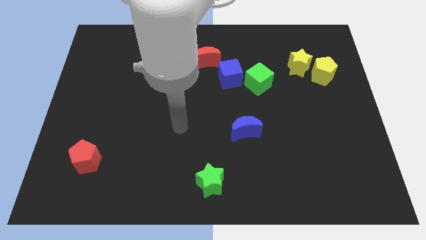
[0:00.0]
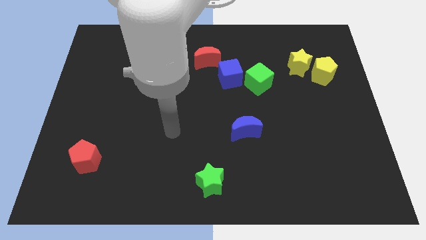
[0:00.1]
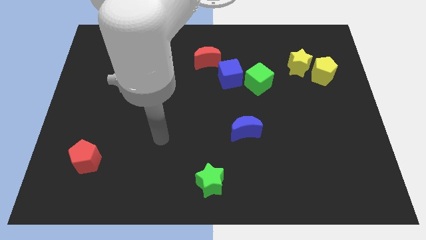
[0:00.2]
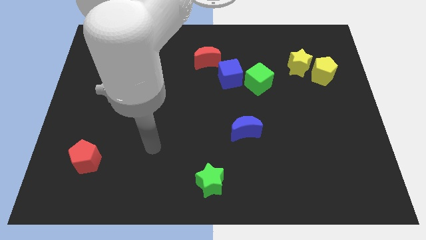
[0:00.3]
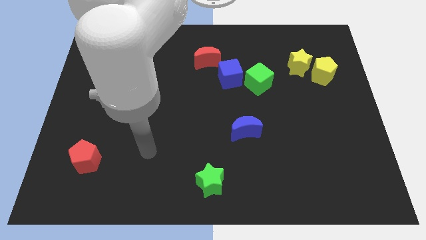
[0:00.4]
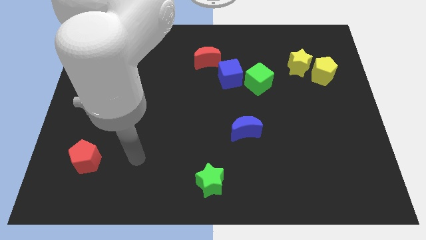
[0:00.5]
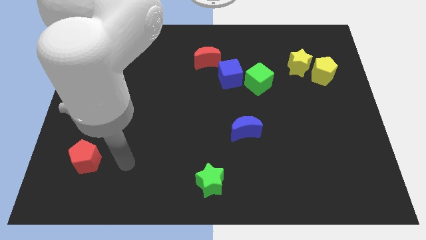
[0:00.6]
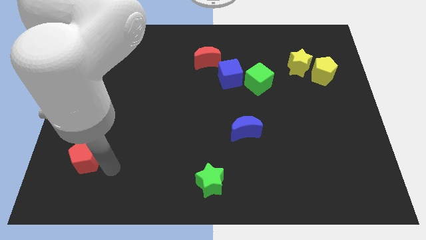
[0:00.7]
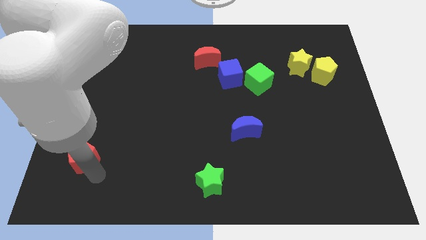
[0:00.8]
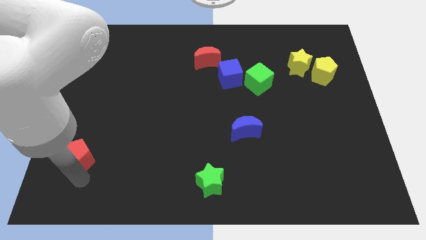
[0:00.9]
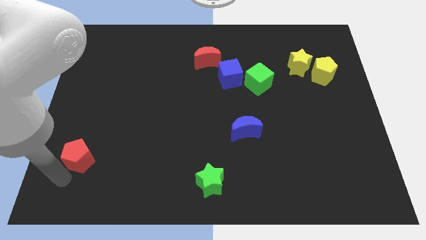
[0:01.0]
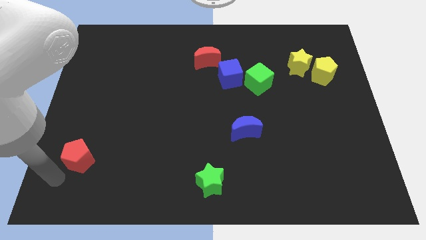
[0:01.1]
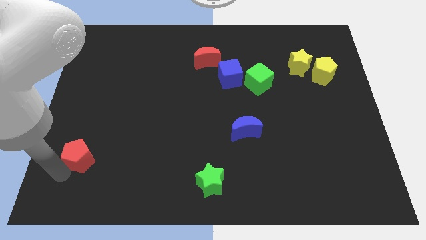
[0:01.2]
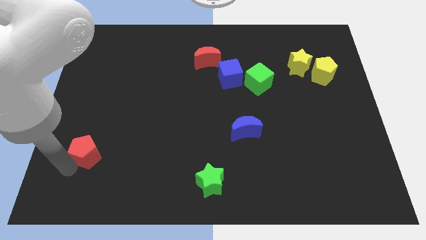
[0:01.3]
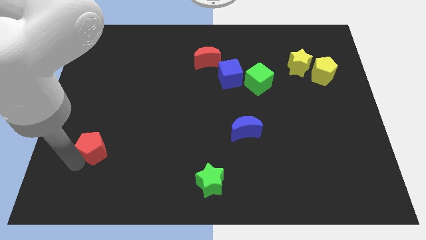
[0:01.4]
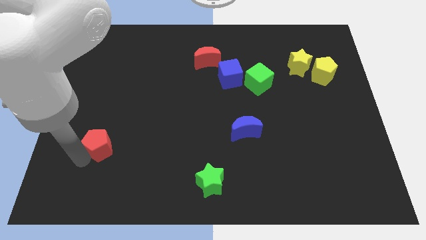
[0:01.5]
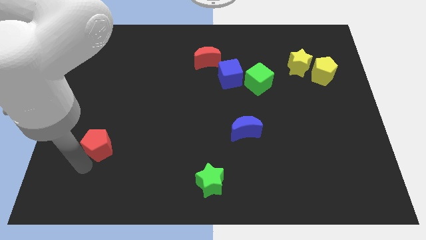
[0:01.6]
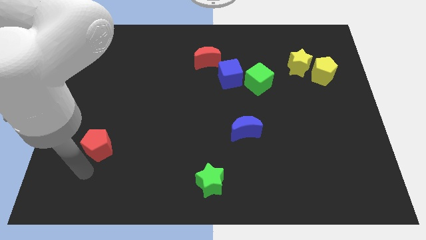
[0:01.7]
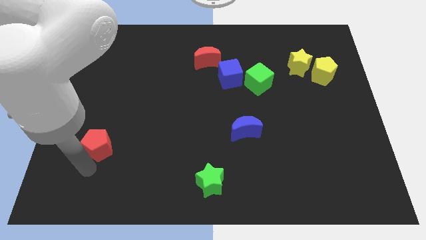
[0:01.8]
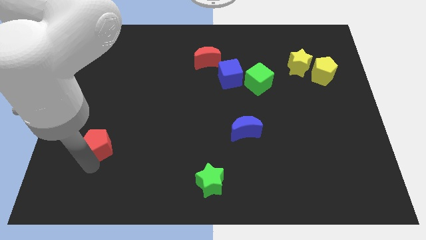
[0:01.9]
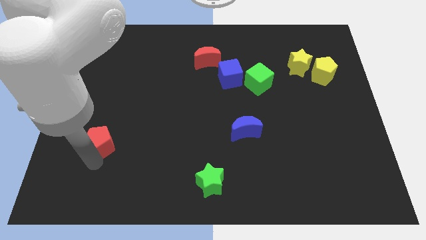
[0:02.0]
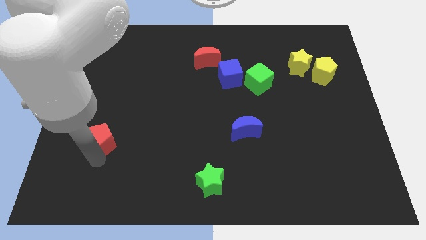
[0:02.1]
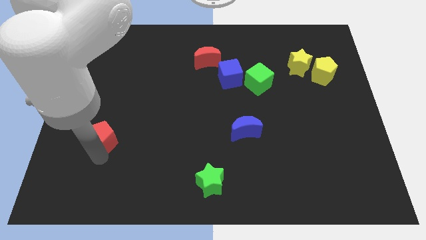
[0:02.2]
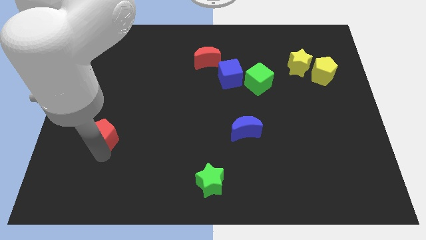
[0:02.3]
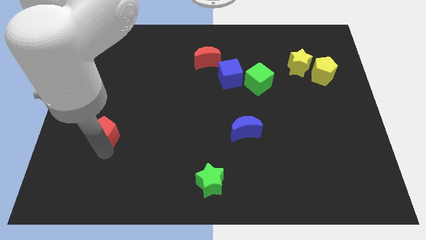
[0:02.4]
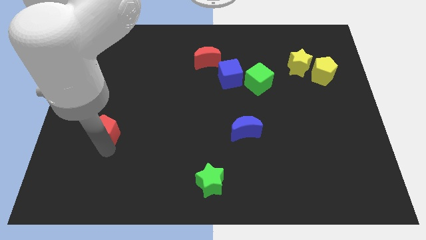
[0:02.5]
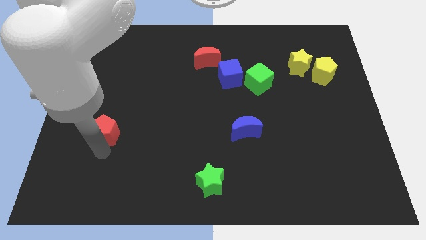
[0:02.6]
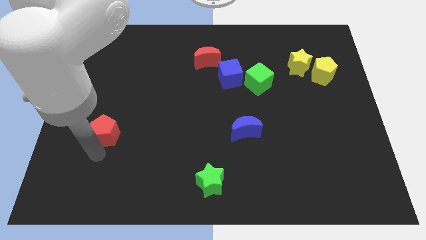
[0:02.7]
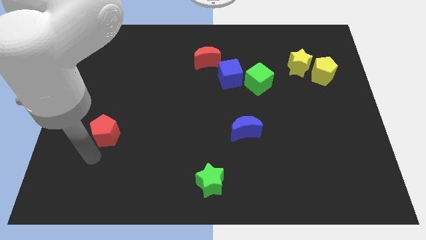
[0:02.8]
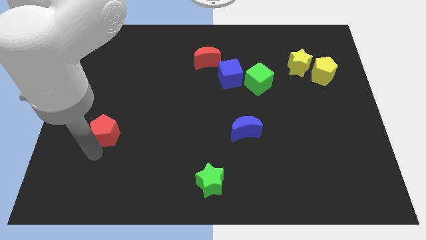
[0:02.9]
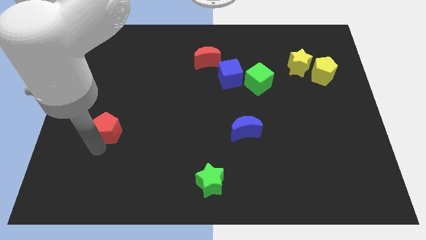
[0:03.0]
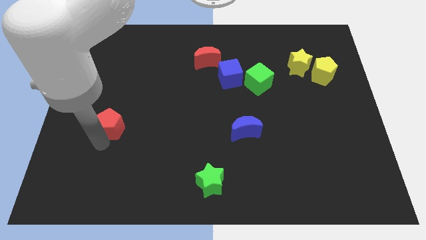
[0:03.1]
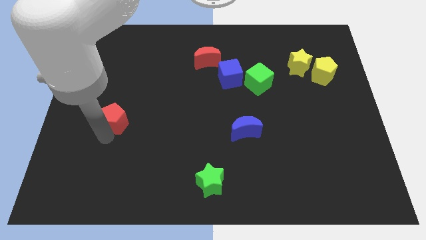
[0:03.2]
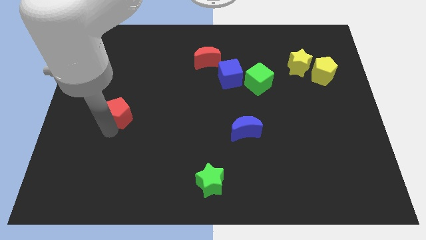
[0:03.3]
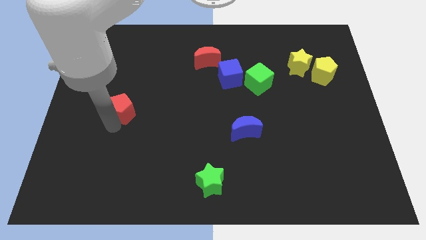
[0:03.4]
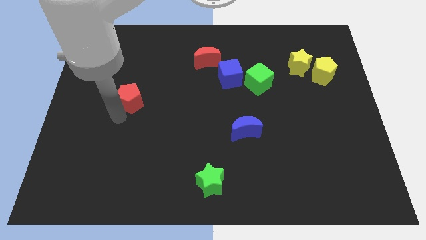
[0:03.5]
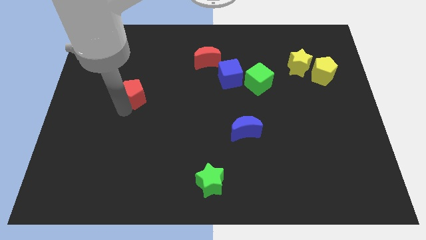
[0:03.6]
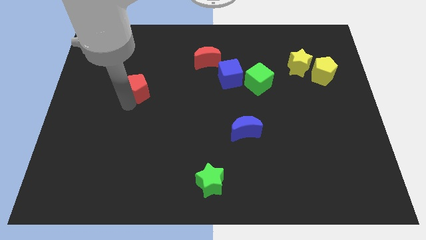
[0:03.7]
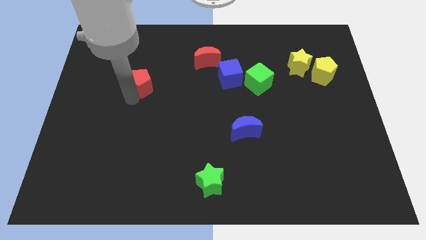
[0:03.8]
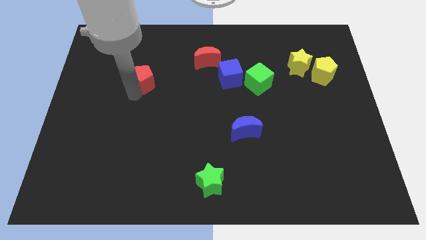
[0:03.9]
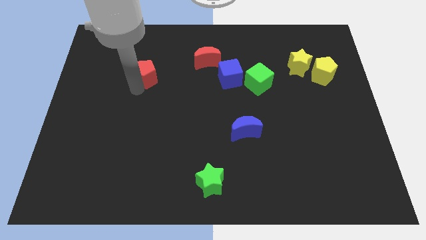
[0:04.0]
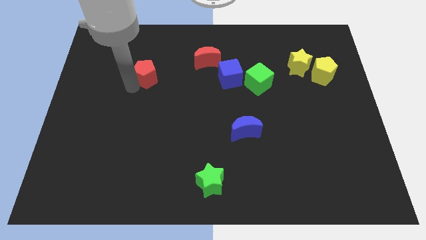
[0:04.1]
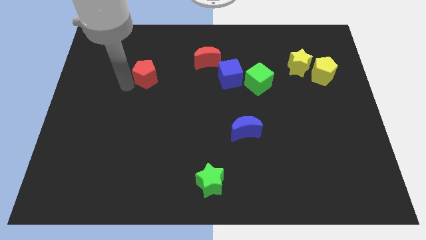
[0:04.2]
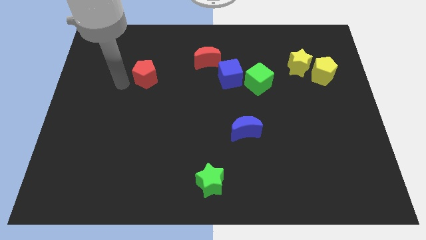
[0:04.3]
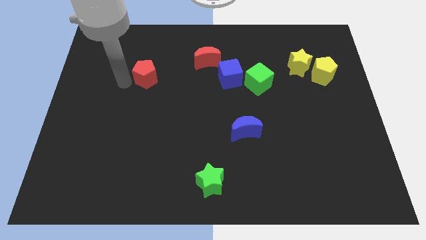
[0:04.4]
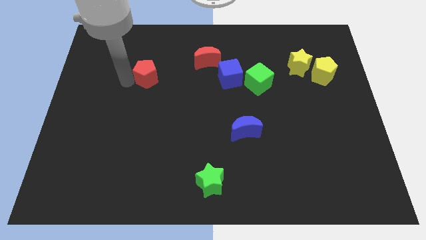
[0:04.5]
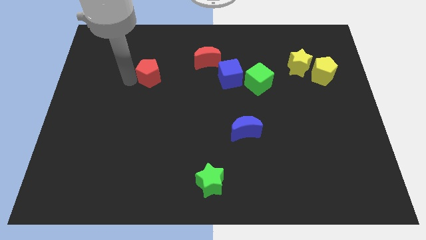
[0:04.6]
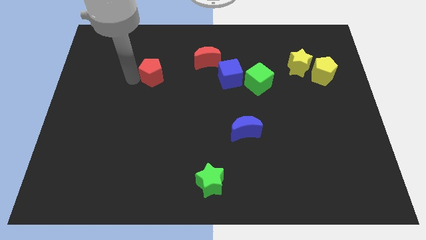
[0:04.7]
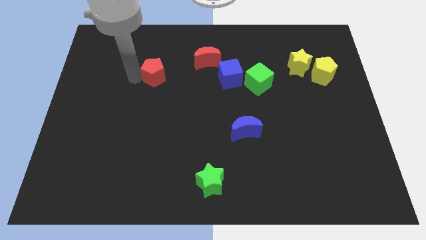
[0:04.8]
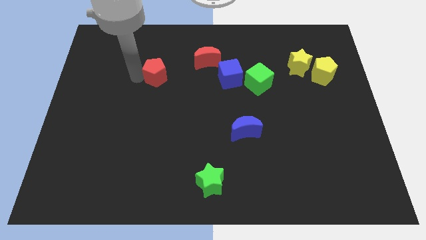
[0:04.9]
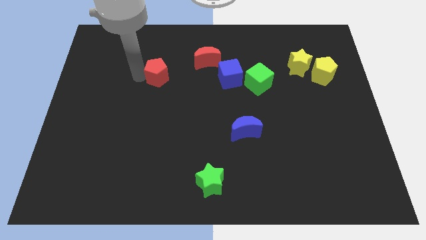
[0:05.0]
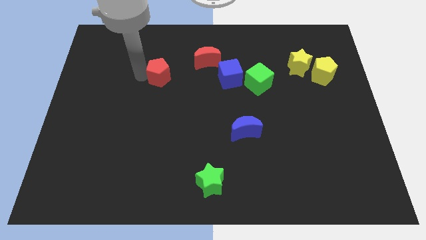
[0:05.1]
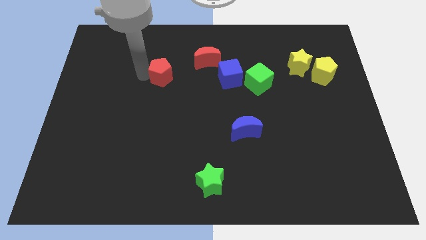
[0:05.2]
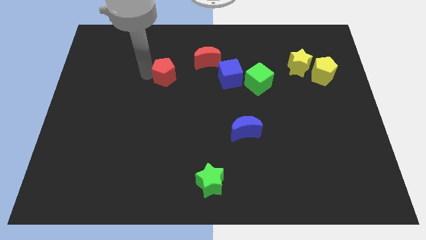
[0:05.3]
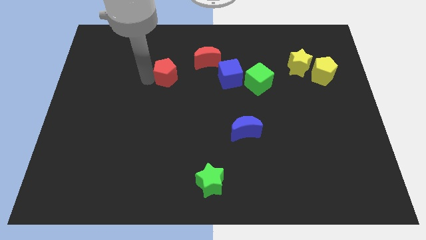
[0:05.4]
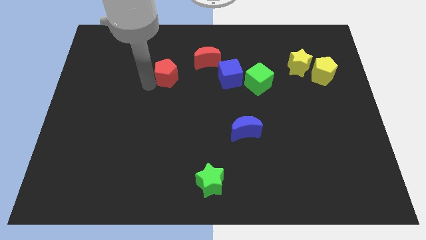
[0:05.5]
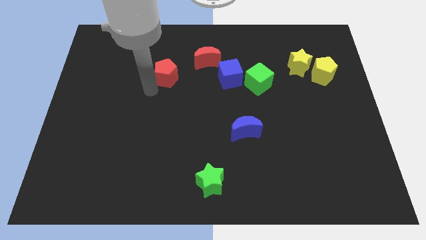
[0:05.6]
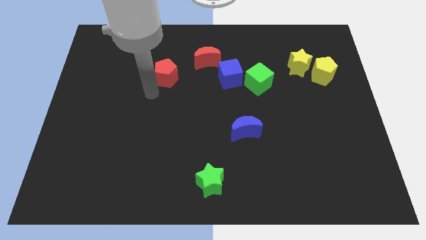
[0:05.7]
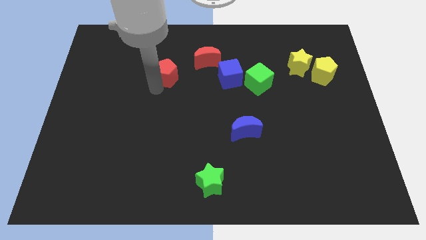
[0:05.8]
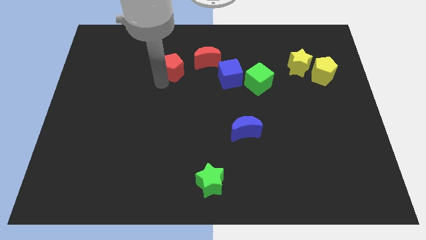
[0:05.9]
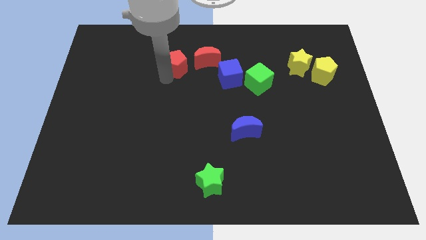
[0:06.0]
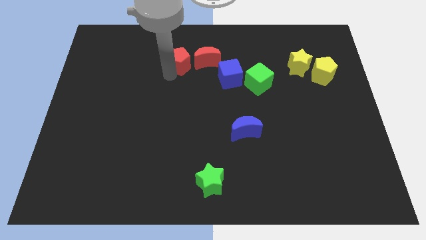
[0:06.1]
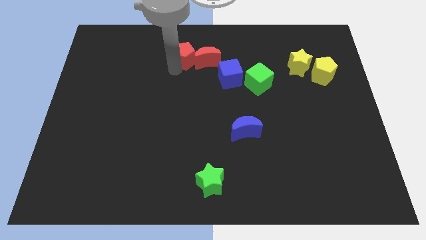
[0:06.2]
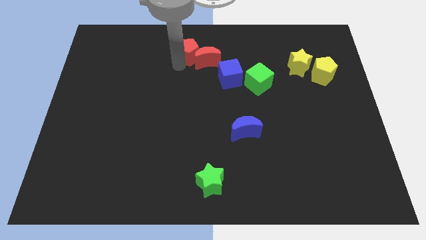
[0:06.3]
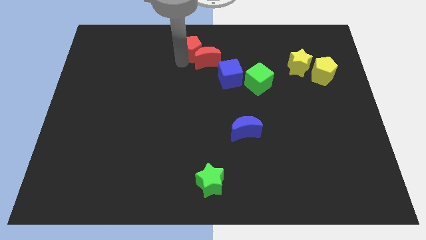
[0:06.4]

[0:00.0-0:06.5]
slide the red pentagon to the top

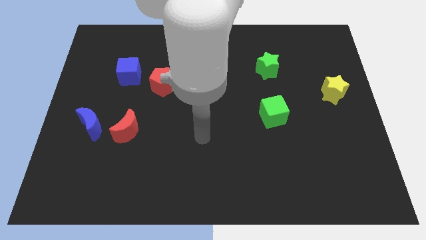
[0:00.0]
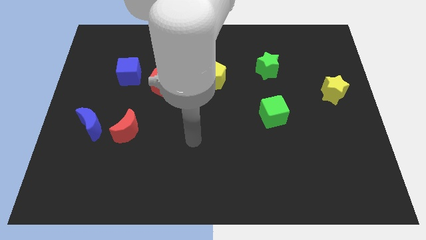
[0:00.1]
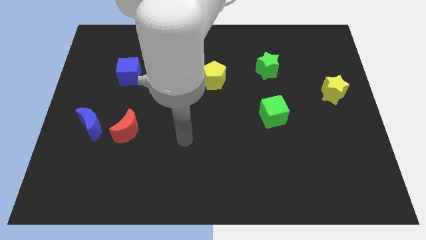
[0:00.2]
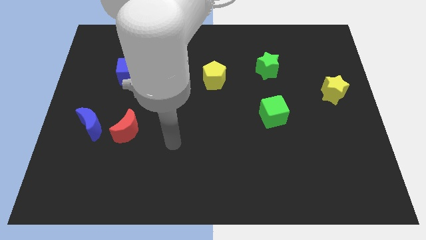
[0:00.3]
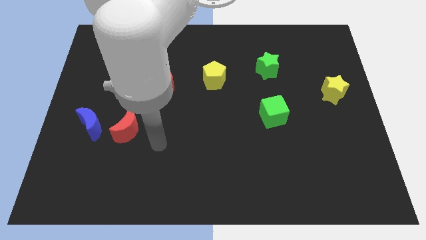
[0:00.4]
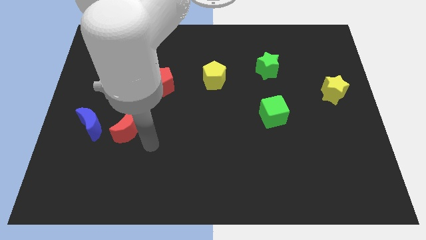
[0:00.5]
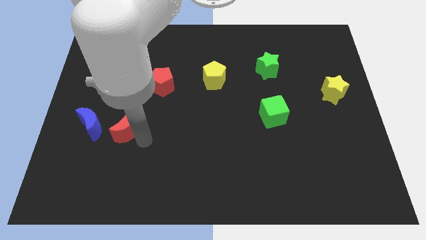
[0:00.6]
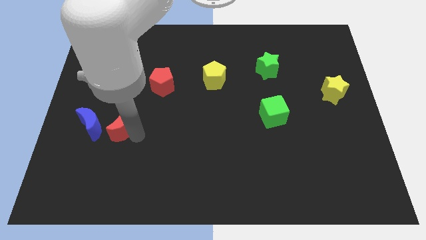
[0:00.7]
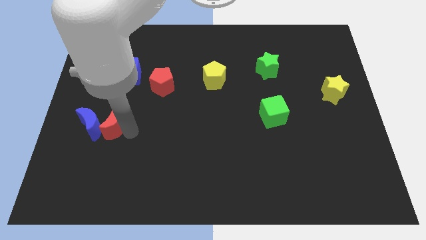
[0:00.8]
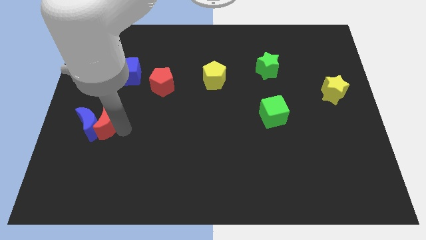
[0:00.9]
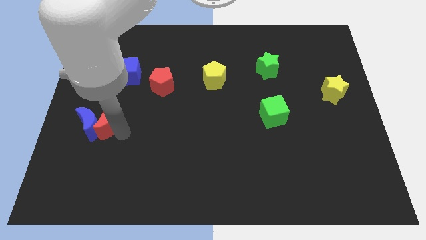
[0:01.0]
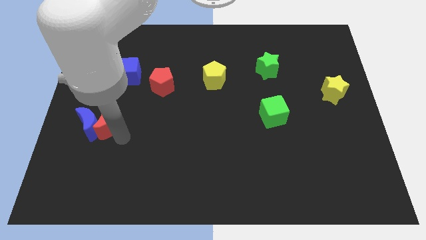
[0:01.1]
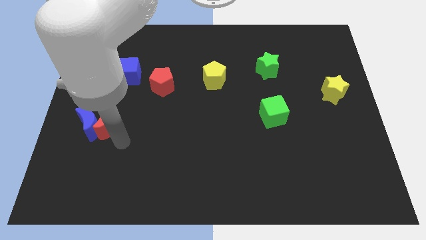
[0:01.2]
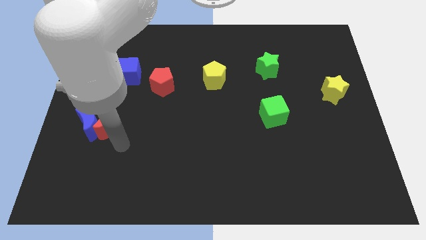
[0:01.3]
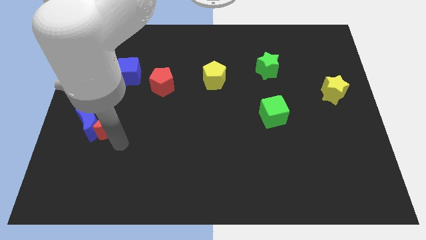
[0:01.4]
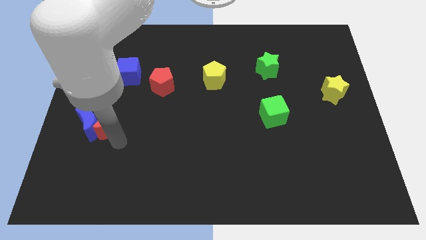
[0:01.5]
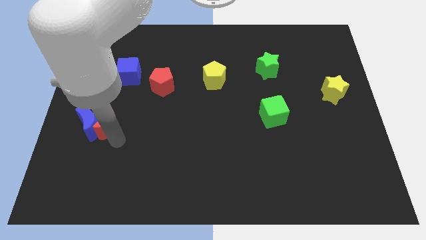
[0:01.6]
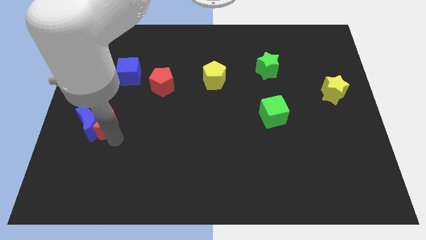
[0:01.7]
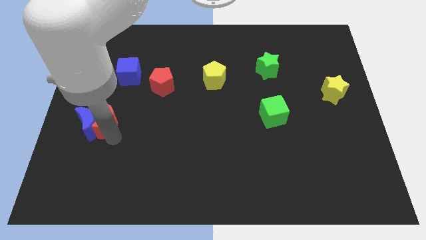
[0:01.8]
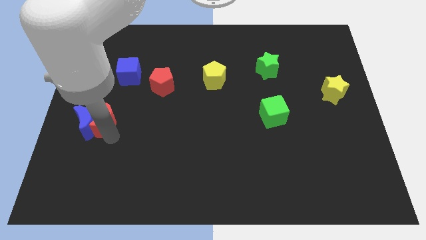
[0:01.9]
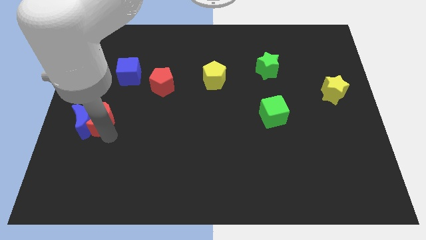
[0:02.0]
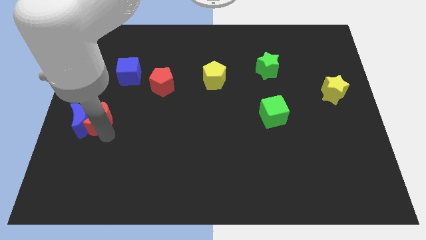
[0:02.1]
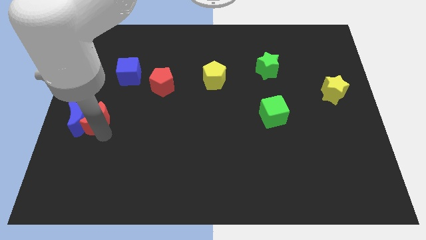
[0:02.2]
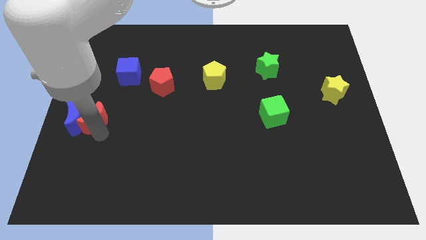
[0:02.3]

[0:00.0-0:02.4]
push the red moon to the center left
